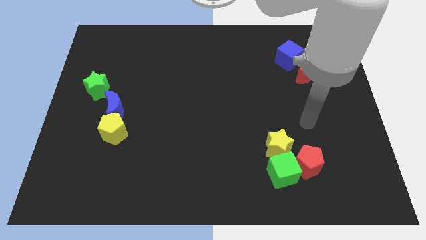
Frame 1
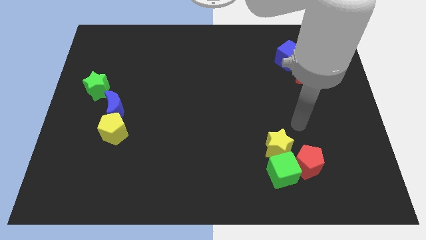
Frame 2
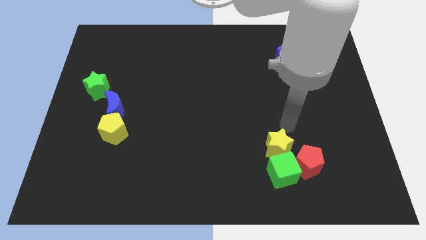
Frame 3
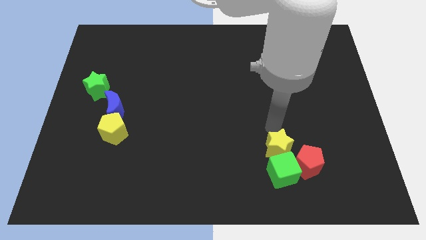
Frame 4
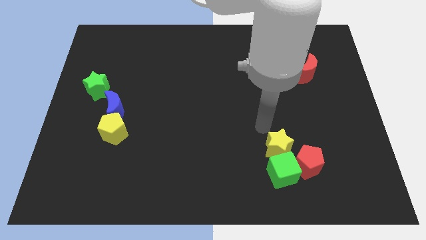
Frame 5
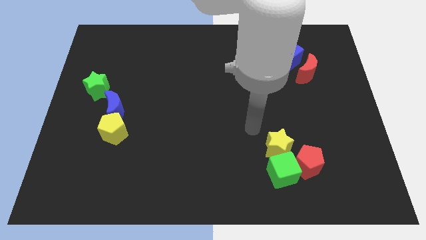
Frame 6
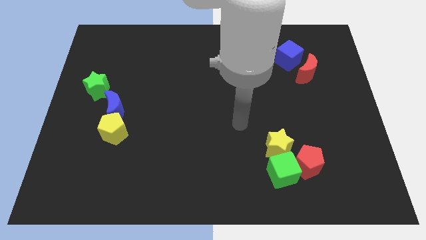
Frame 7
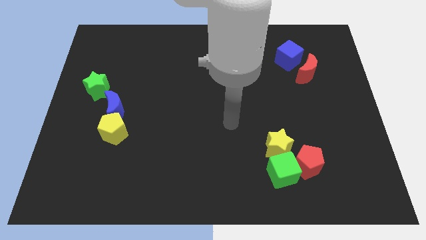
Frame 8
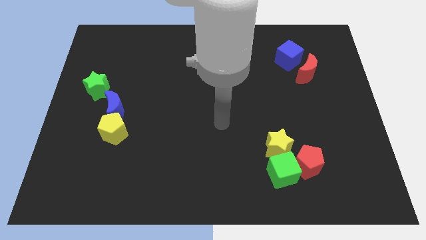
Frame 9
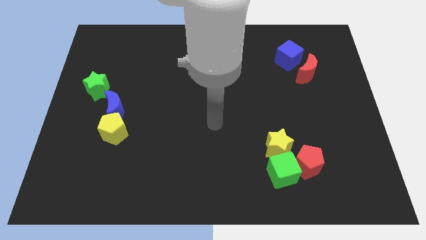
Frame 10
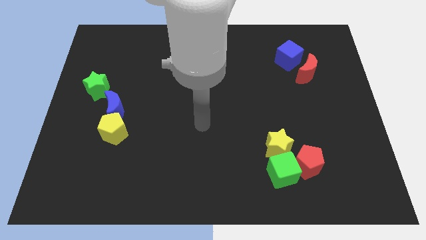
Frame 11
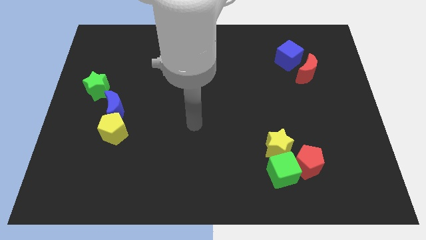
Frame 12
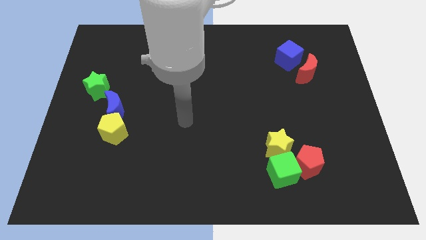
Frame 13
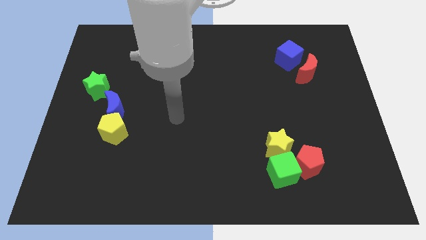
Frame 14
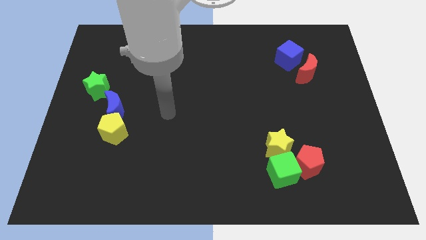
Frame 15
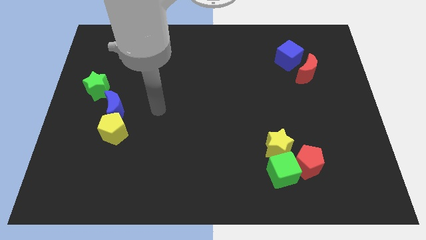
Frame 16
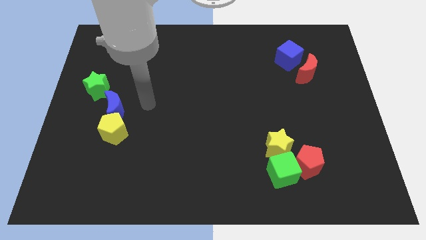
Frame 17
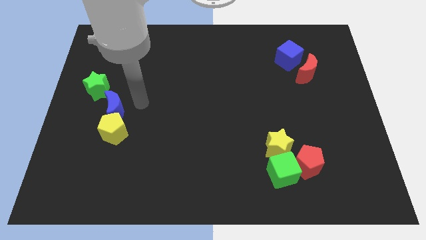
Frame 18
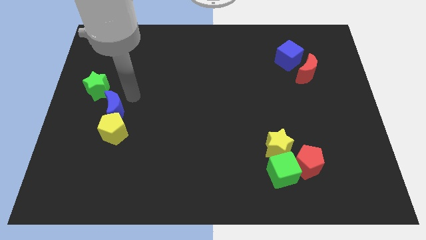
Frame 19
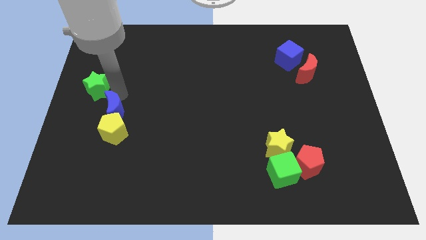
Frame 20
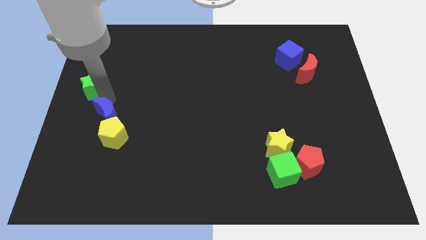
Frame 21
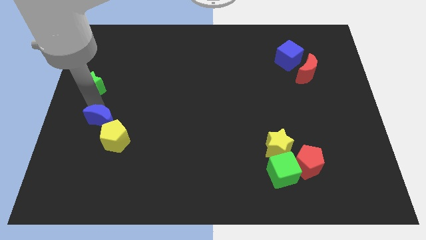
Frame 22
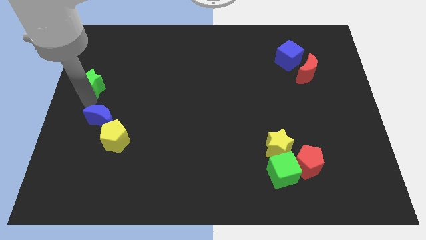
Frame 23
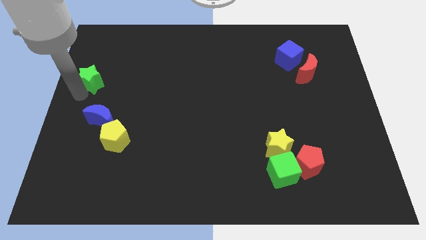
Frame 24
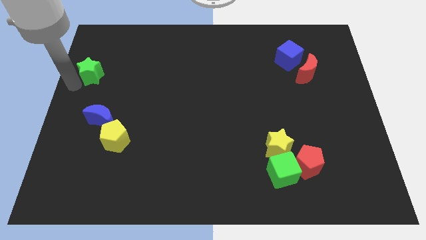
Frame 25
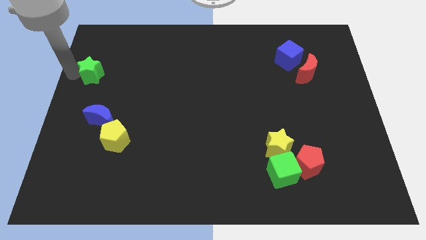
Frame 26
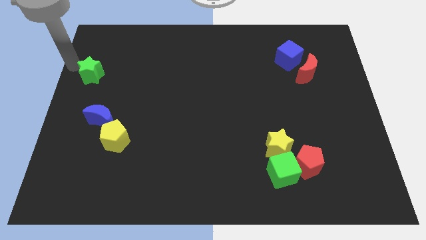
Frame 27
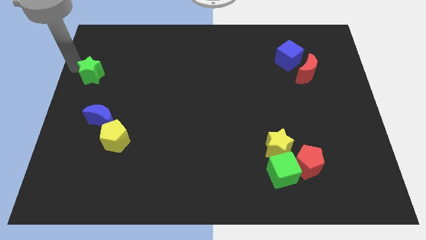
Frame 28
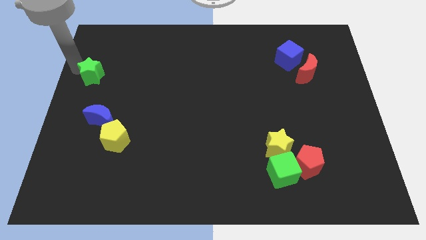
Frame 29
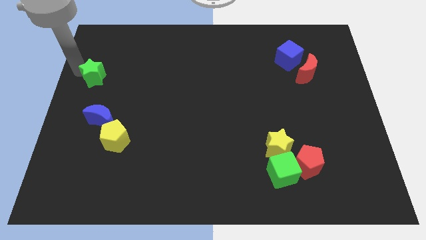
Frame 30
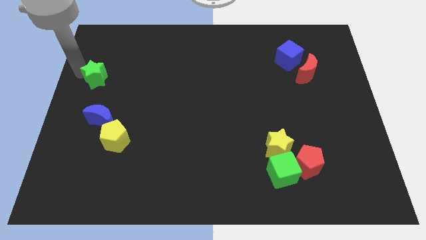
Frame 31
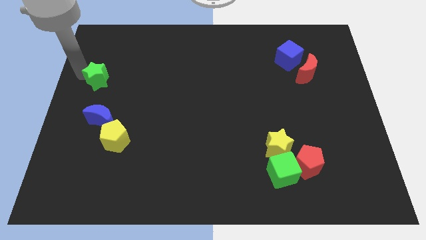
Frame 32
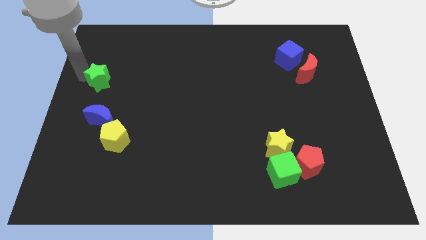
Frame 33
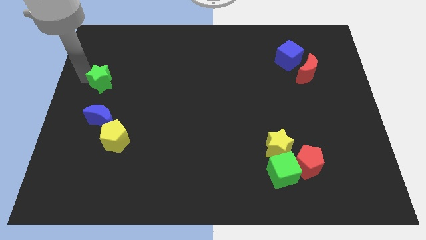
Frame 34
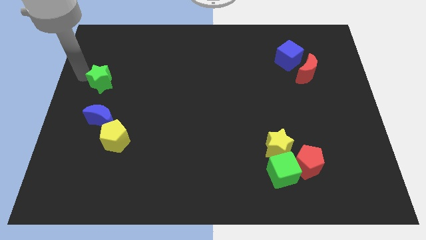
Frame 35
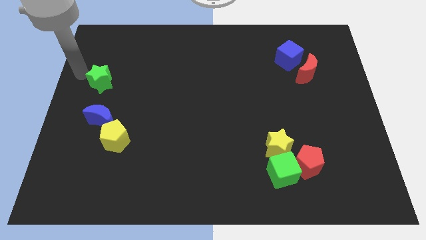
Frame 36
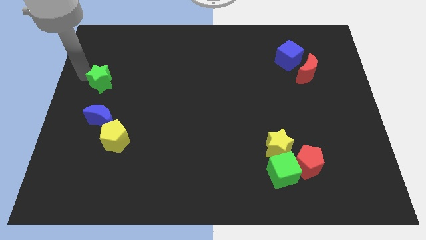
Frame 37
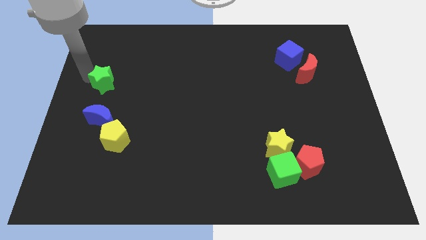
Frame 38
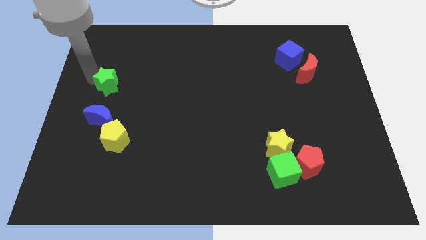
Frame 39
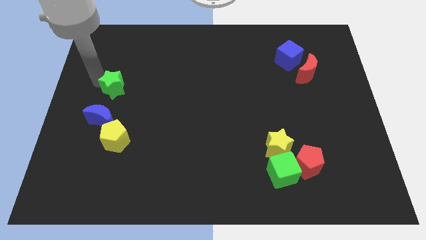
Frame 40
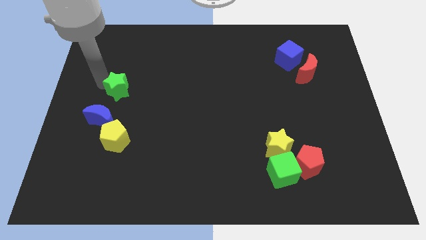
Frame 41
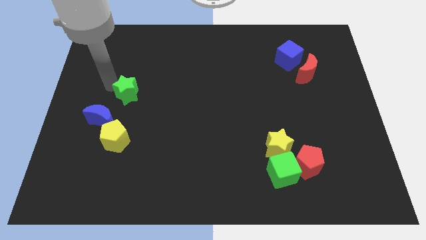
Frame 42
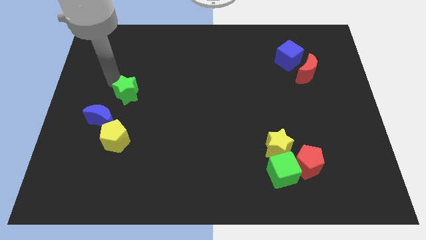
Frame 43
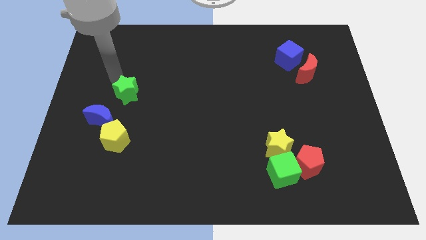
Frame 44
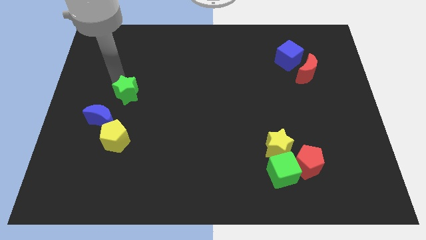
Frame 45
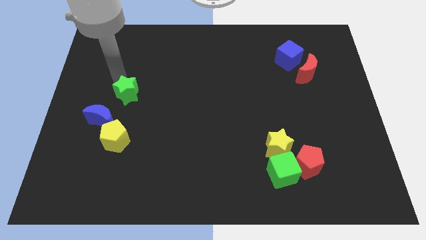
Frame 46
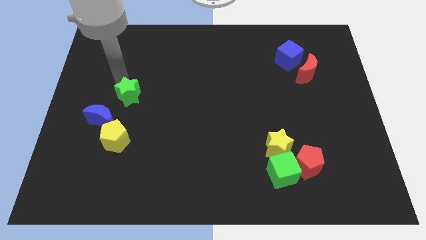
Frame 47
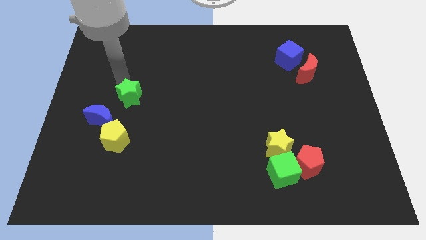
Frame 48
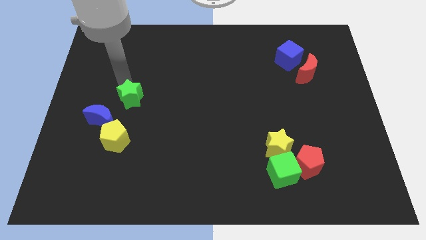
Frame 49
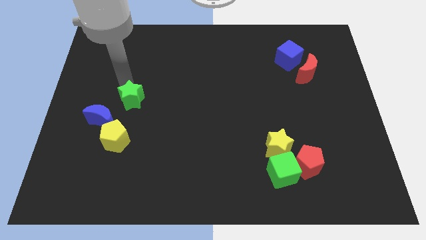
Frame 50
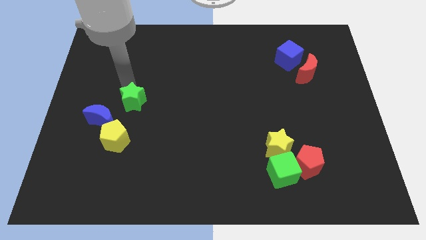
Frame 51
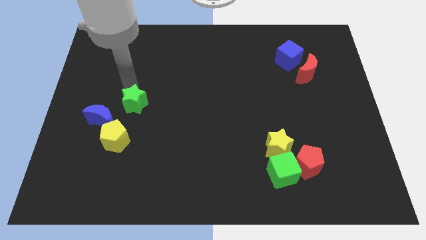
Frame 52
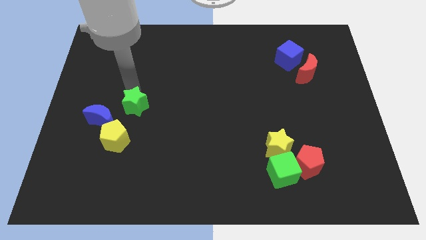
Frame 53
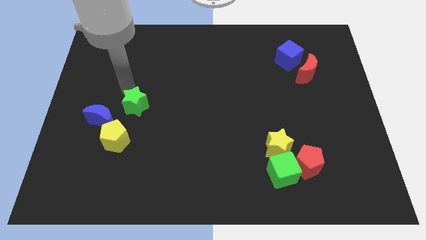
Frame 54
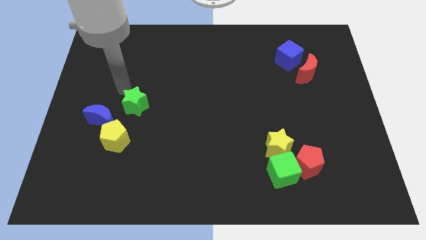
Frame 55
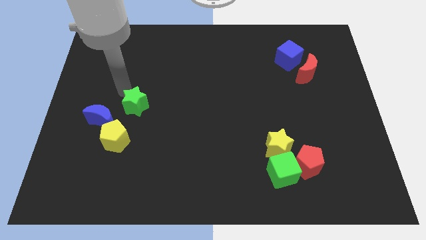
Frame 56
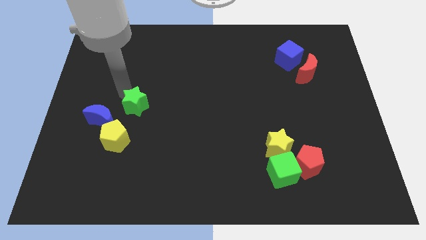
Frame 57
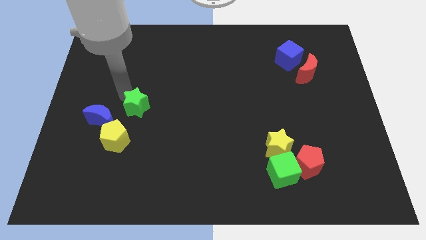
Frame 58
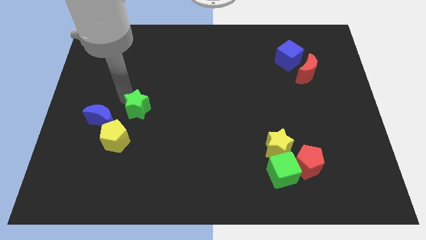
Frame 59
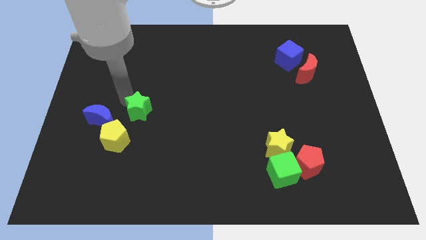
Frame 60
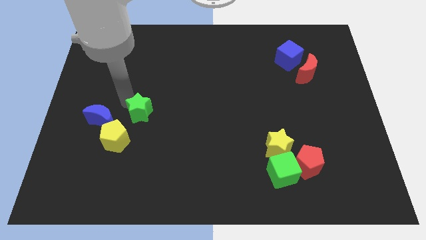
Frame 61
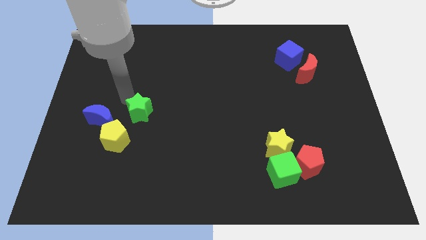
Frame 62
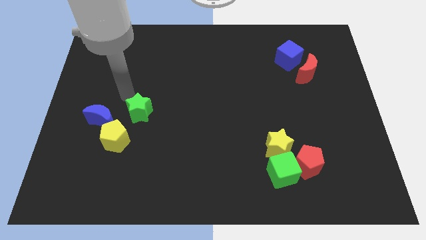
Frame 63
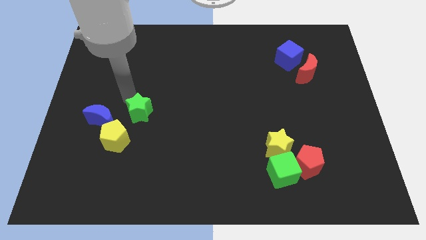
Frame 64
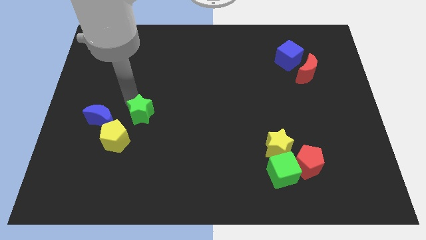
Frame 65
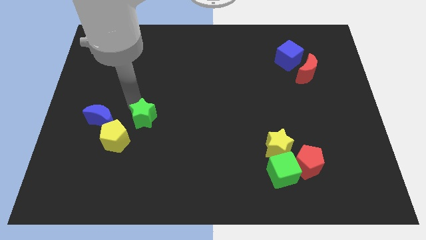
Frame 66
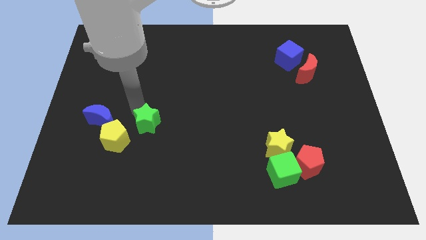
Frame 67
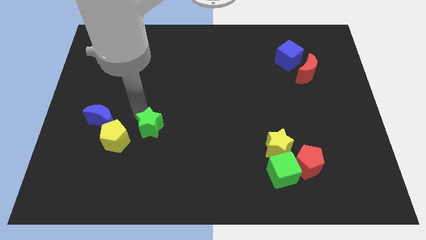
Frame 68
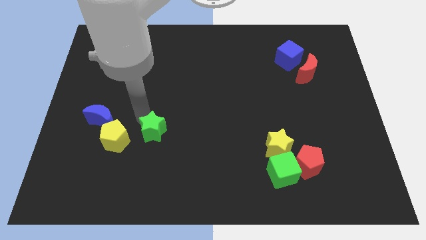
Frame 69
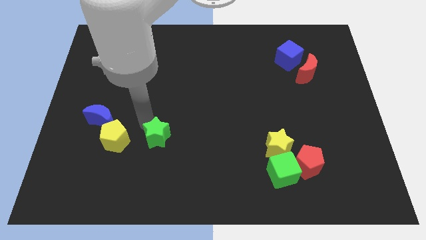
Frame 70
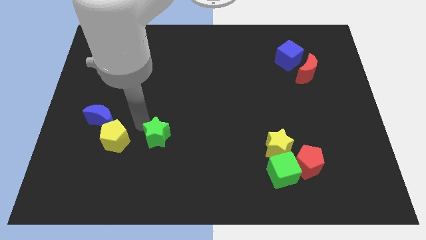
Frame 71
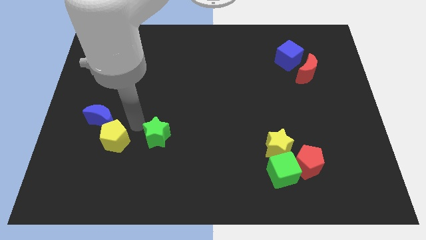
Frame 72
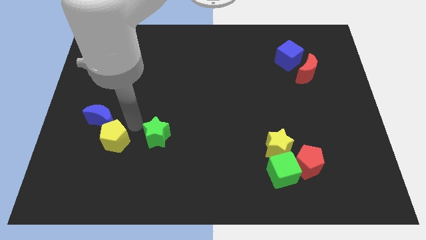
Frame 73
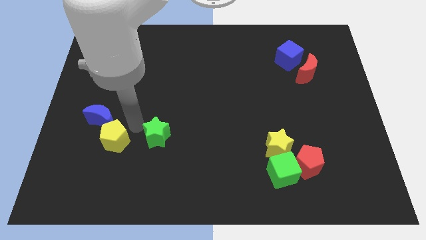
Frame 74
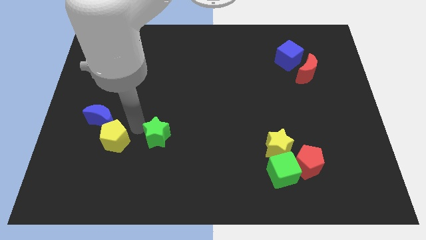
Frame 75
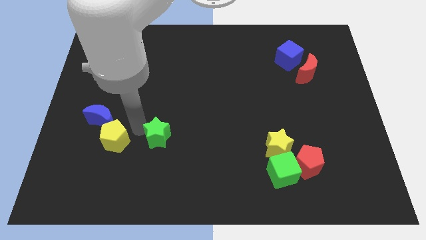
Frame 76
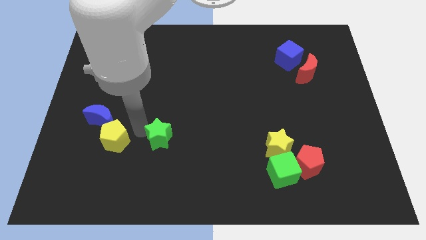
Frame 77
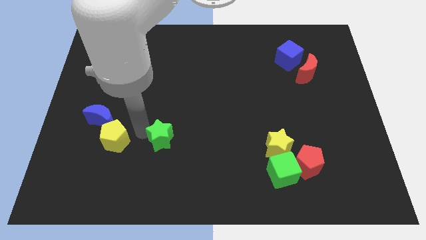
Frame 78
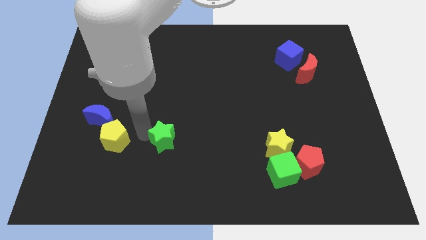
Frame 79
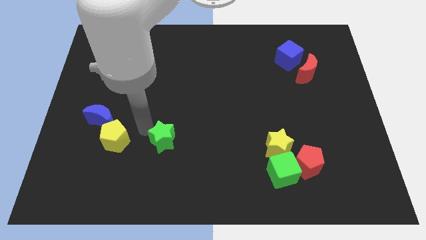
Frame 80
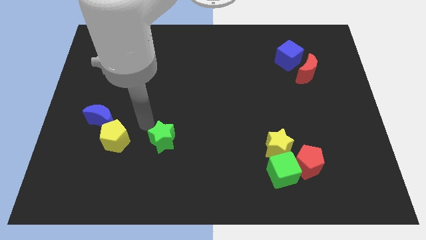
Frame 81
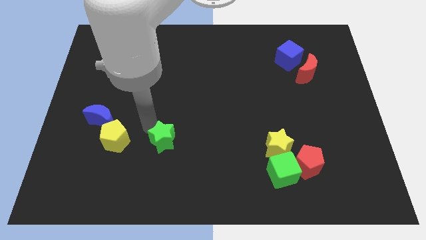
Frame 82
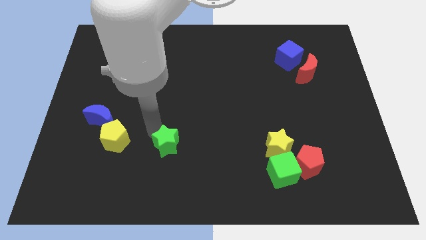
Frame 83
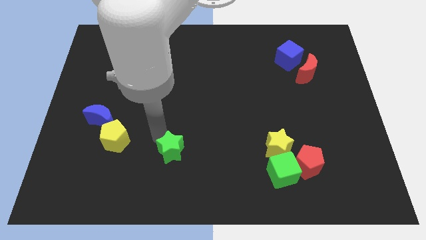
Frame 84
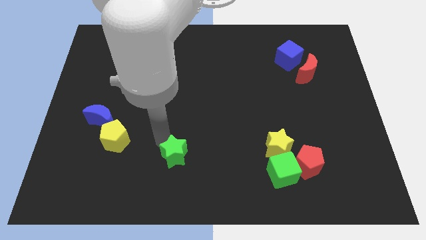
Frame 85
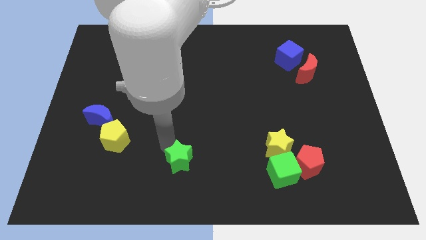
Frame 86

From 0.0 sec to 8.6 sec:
slide the green star to the bottom
